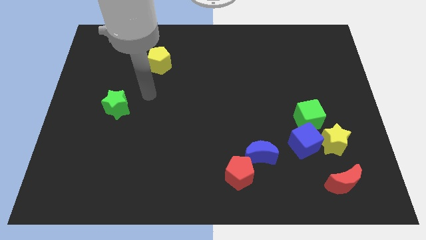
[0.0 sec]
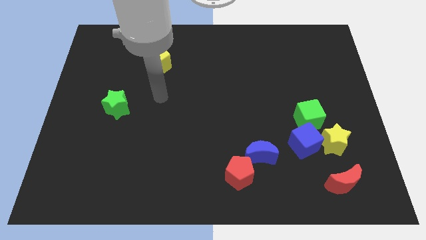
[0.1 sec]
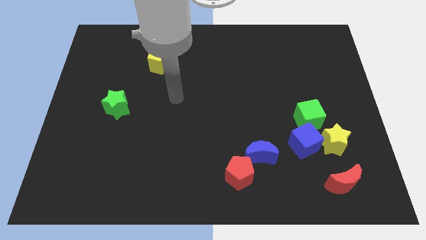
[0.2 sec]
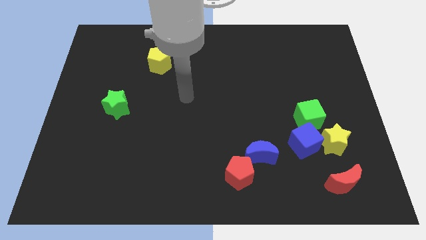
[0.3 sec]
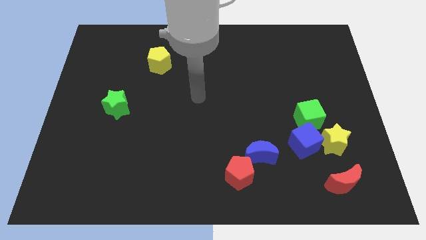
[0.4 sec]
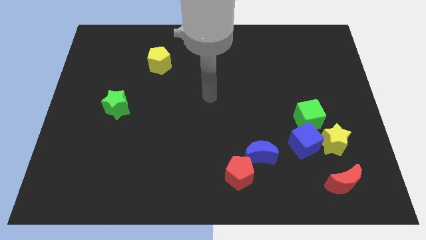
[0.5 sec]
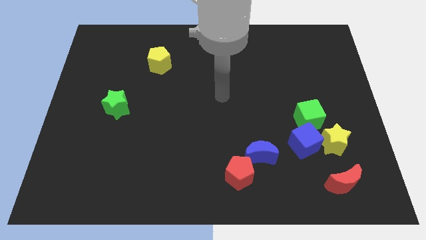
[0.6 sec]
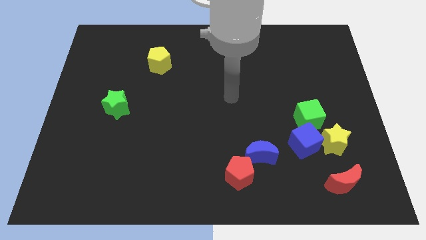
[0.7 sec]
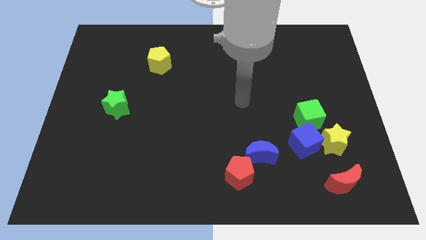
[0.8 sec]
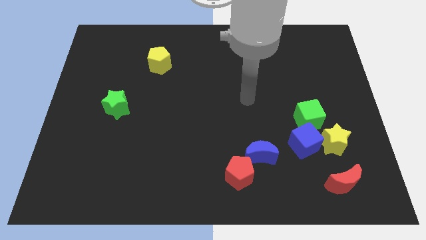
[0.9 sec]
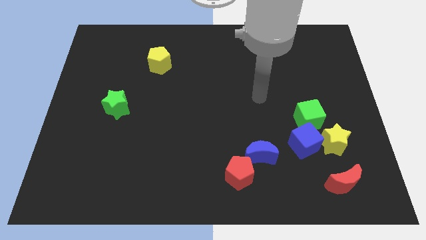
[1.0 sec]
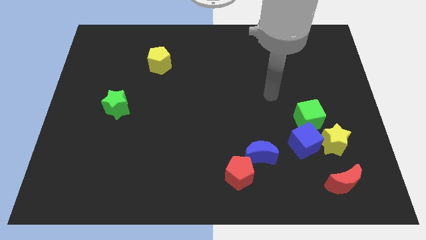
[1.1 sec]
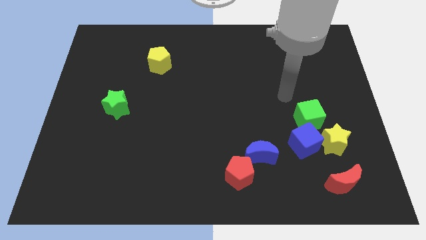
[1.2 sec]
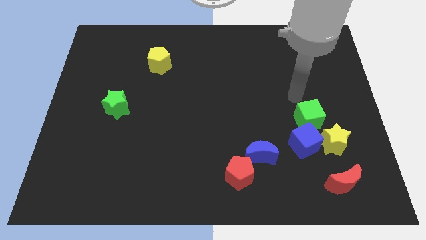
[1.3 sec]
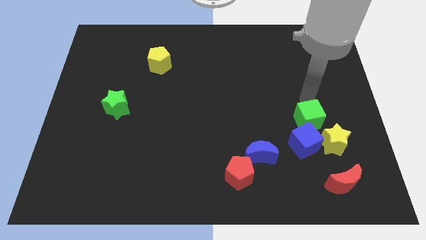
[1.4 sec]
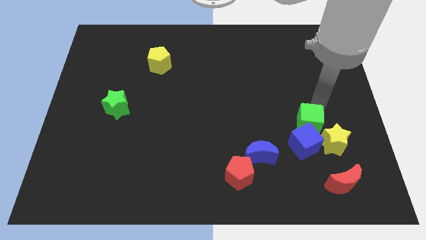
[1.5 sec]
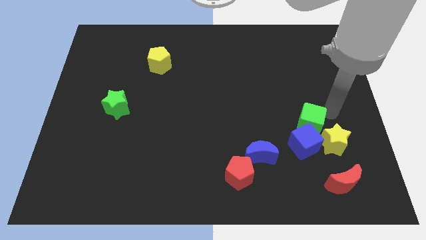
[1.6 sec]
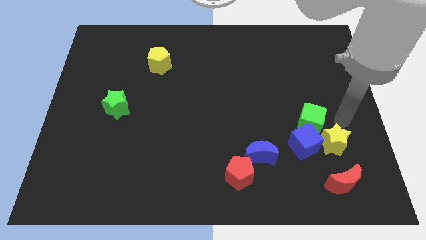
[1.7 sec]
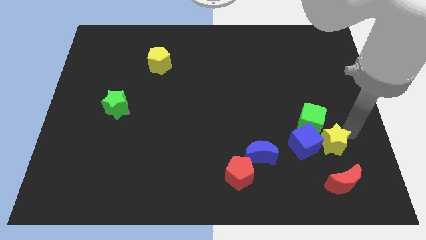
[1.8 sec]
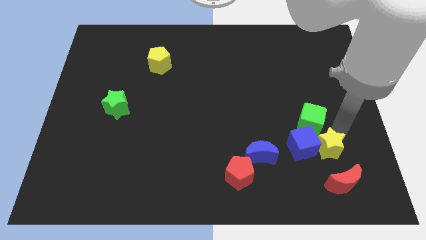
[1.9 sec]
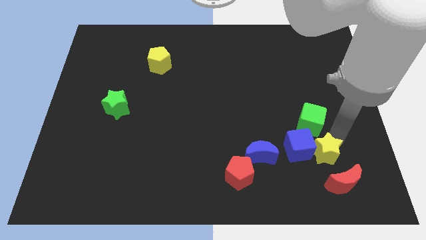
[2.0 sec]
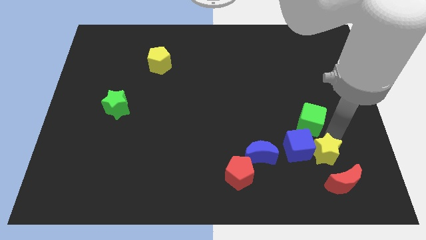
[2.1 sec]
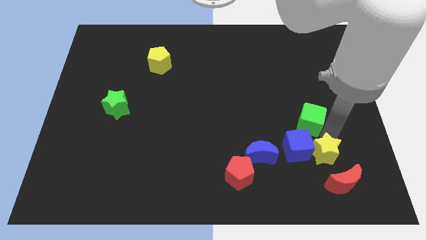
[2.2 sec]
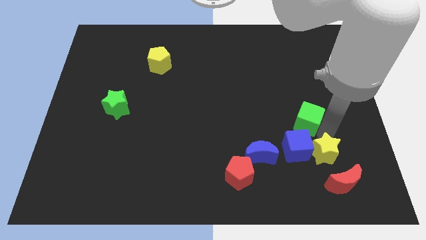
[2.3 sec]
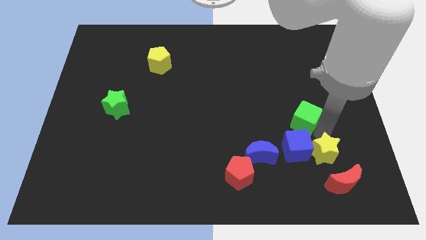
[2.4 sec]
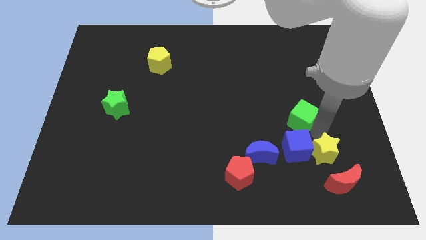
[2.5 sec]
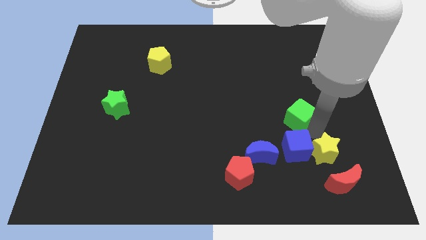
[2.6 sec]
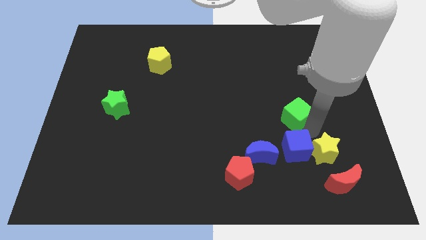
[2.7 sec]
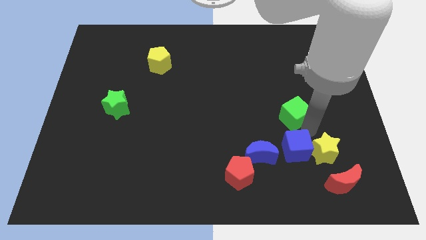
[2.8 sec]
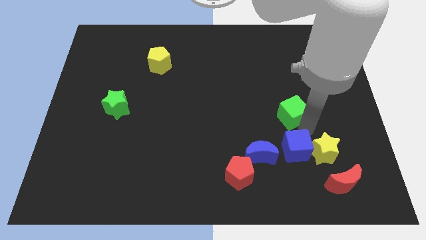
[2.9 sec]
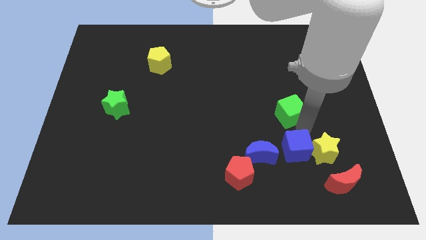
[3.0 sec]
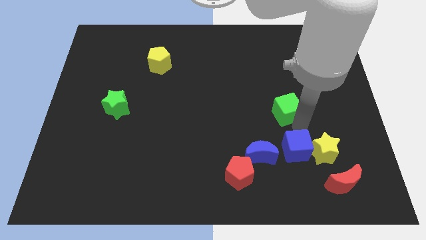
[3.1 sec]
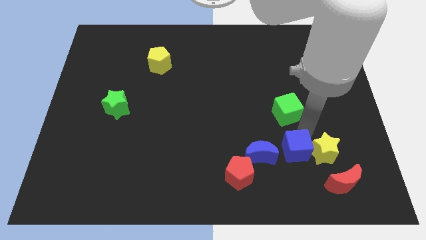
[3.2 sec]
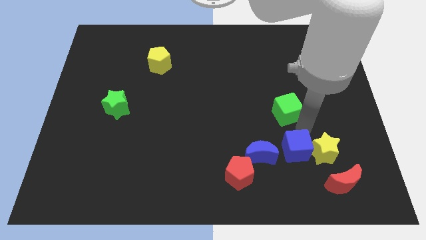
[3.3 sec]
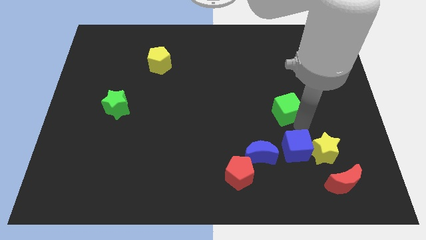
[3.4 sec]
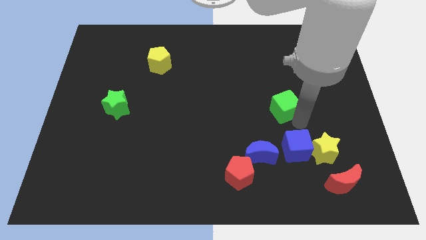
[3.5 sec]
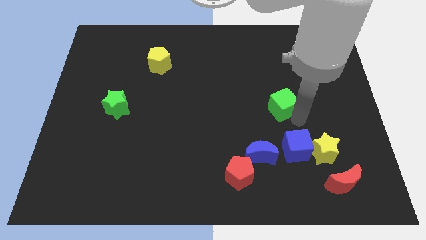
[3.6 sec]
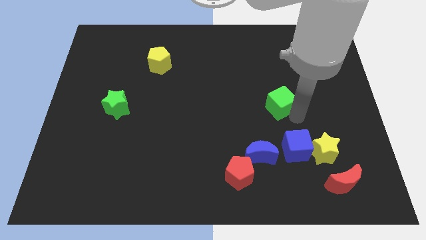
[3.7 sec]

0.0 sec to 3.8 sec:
move the green cube upwards and left a bit

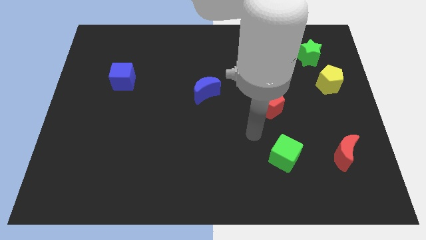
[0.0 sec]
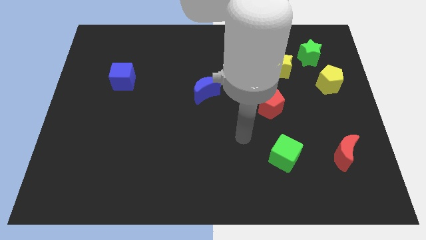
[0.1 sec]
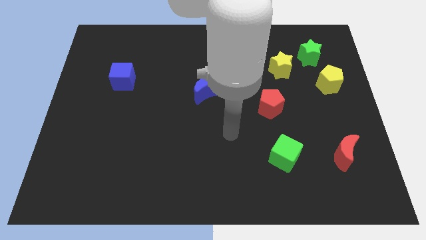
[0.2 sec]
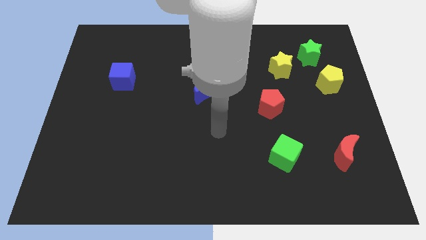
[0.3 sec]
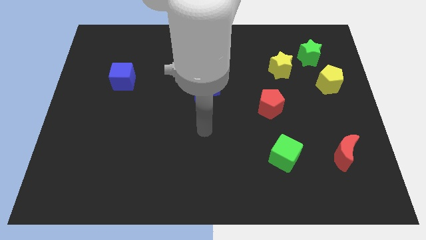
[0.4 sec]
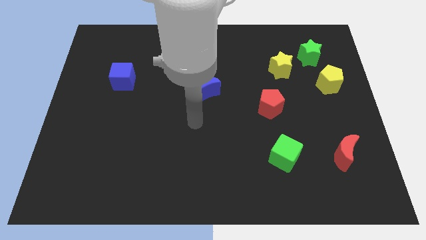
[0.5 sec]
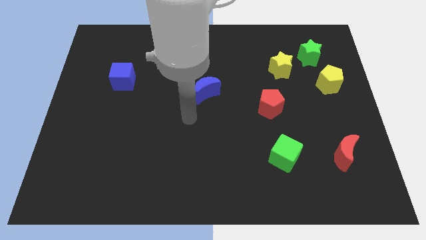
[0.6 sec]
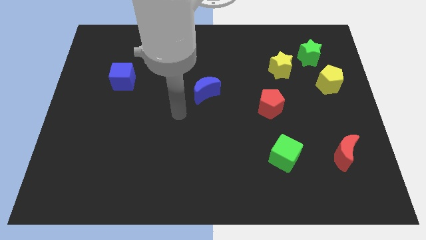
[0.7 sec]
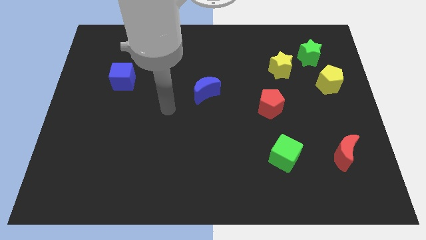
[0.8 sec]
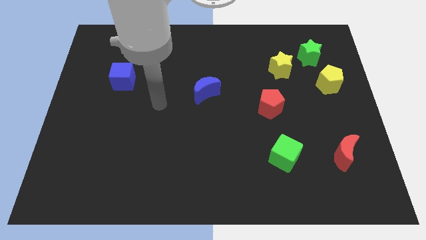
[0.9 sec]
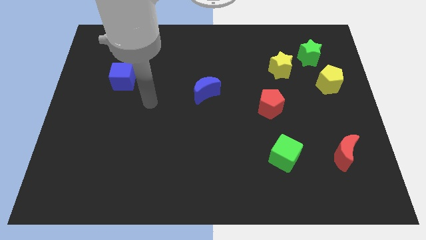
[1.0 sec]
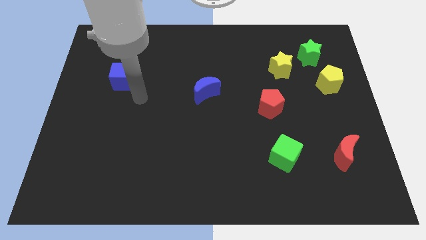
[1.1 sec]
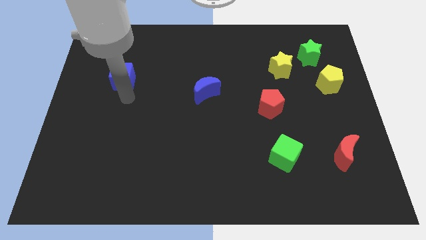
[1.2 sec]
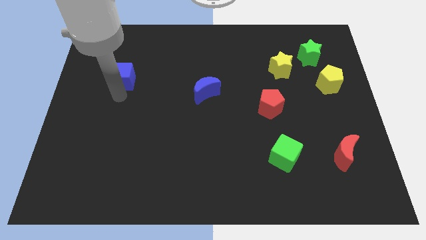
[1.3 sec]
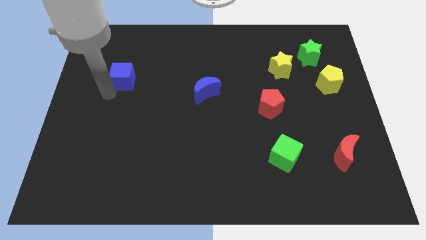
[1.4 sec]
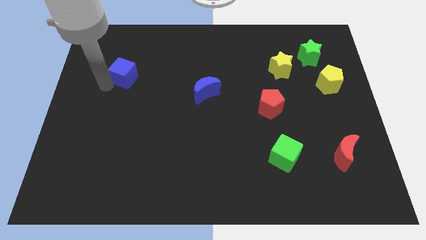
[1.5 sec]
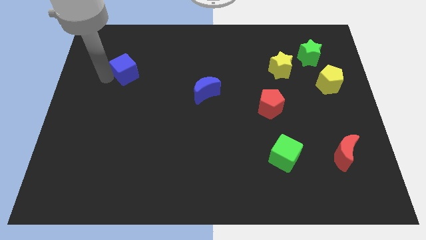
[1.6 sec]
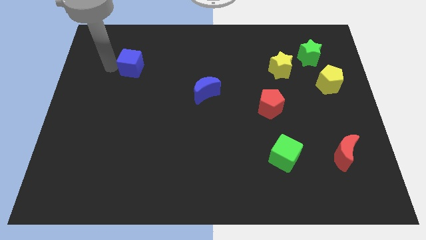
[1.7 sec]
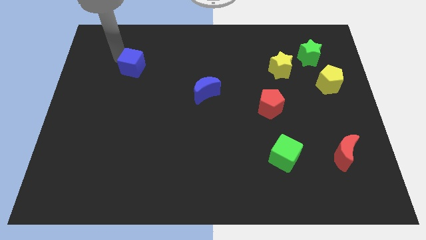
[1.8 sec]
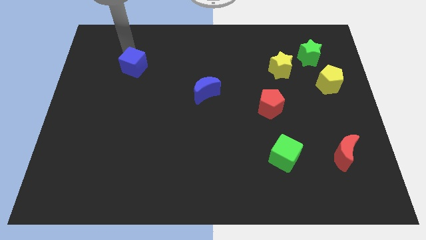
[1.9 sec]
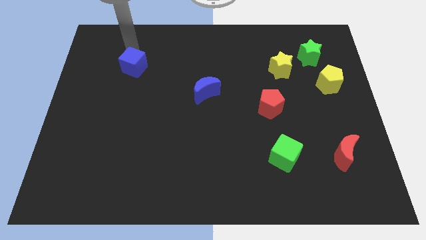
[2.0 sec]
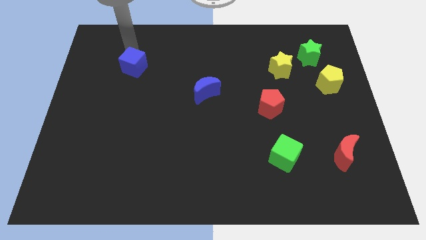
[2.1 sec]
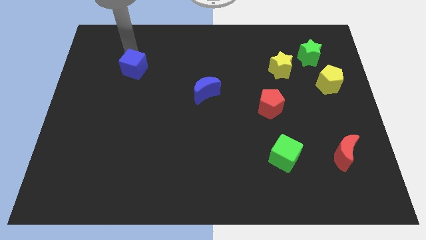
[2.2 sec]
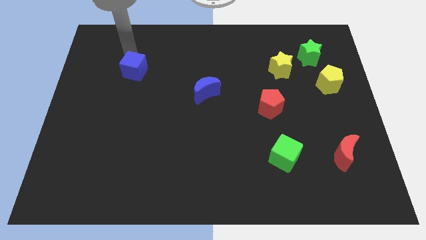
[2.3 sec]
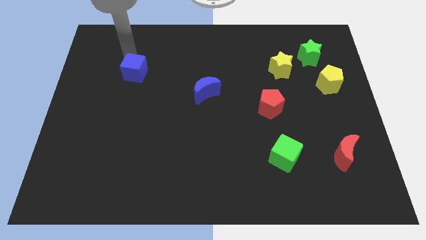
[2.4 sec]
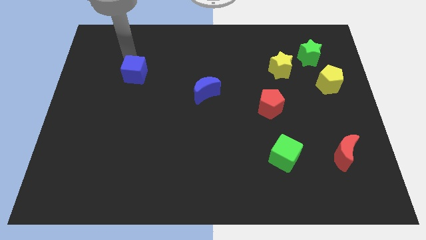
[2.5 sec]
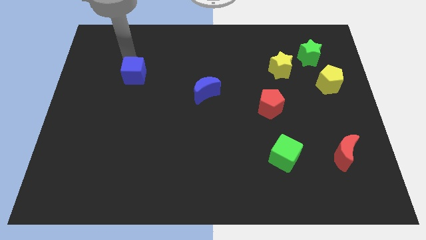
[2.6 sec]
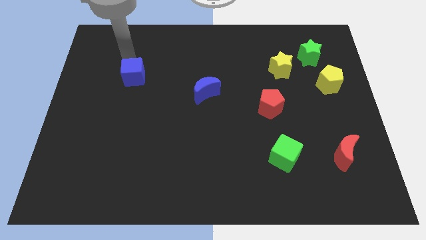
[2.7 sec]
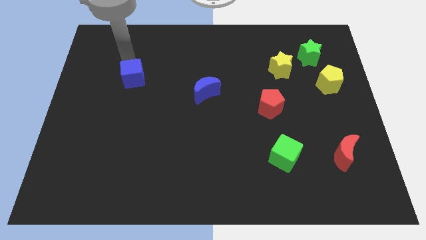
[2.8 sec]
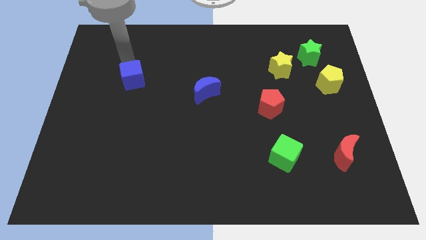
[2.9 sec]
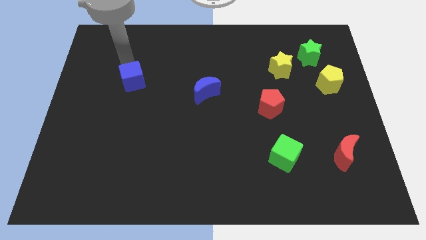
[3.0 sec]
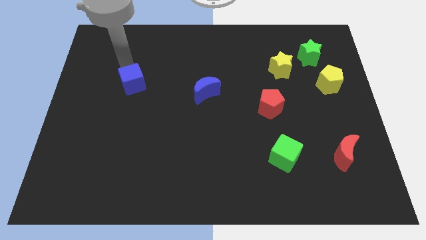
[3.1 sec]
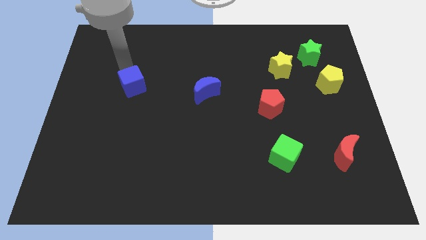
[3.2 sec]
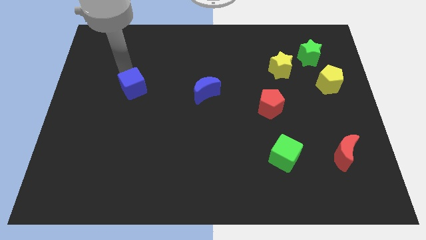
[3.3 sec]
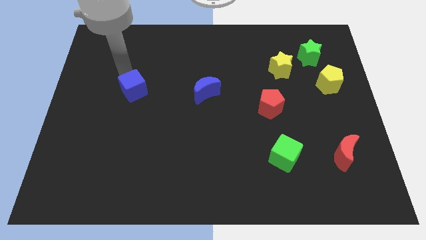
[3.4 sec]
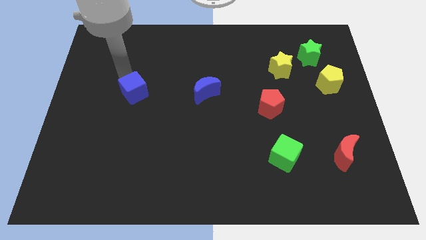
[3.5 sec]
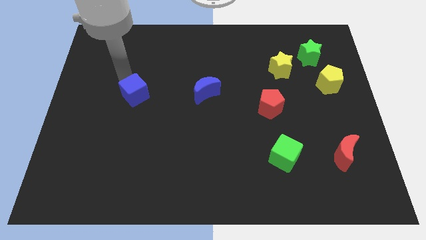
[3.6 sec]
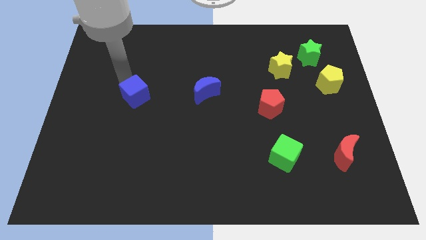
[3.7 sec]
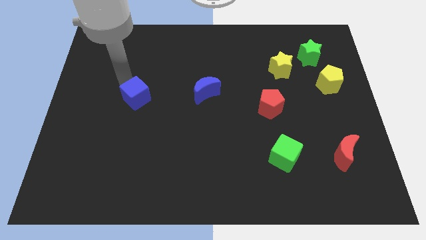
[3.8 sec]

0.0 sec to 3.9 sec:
push the blue cube down and then right a bit

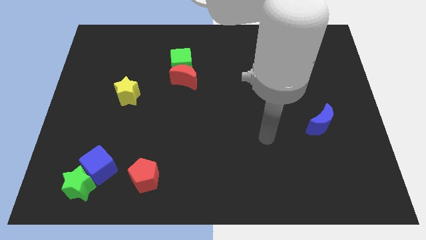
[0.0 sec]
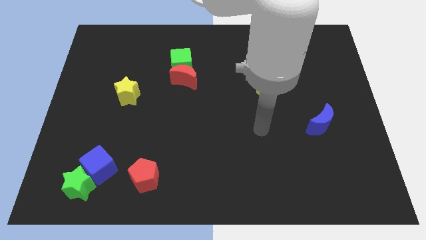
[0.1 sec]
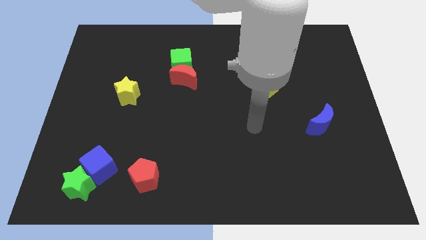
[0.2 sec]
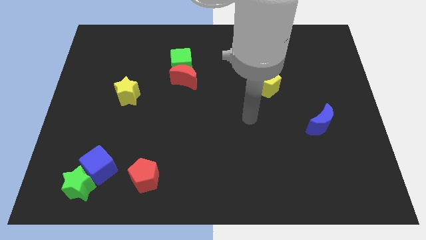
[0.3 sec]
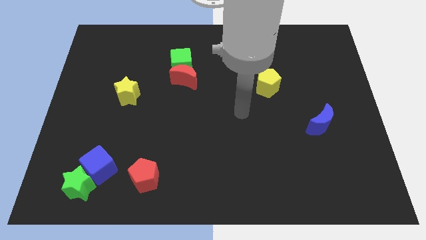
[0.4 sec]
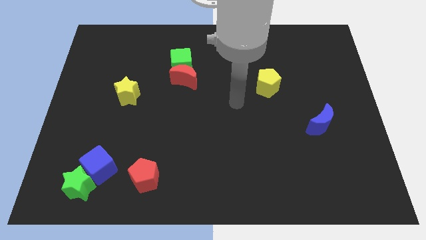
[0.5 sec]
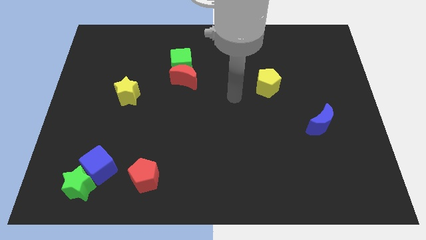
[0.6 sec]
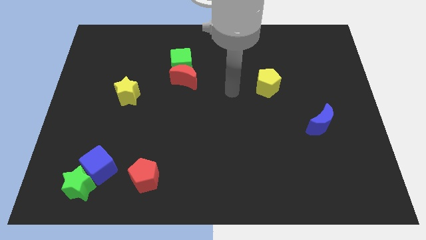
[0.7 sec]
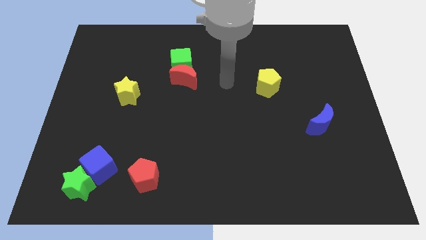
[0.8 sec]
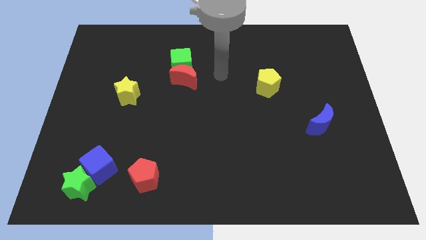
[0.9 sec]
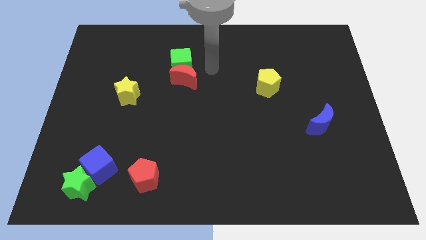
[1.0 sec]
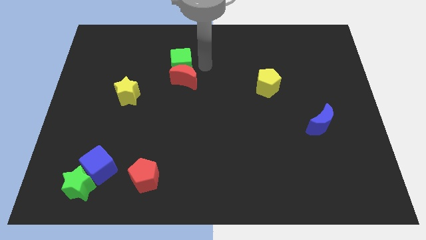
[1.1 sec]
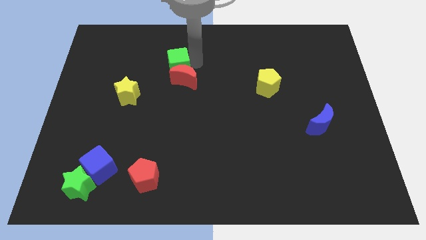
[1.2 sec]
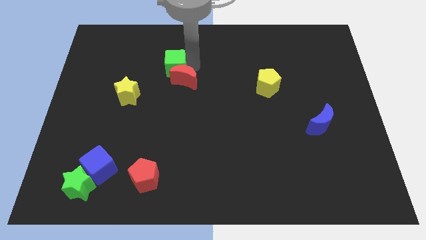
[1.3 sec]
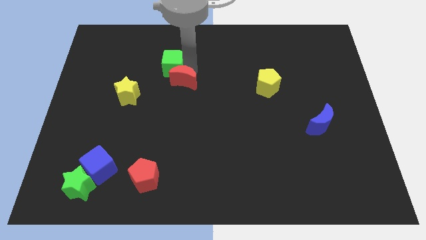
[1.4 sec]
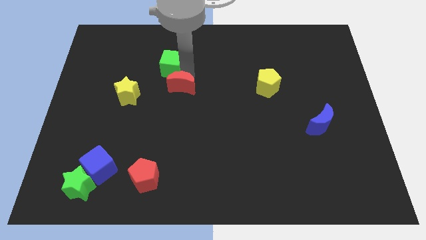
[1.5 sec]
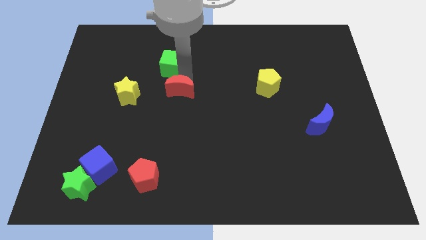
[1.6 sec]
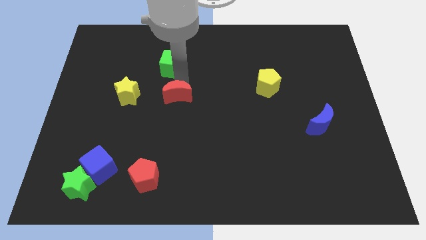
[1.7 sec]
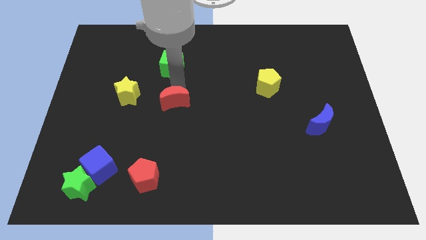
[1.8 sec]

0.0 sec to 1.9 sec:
slide the red moon down a little bit
